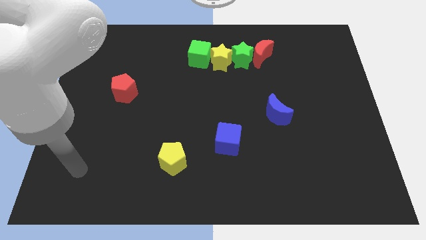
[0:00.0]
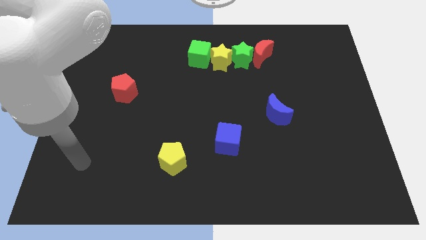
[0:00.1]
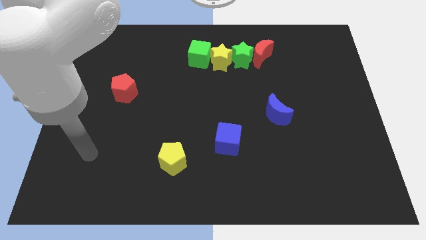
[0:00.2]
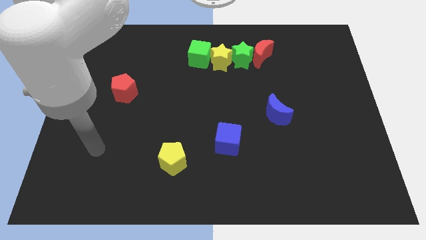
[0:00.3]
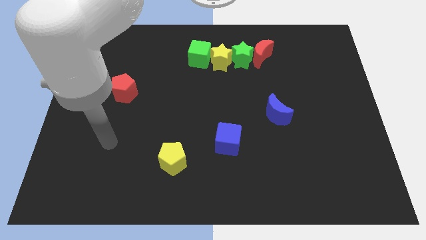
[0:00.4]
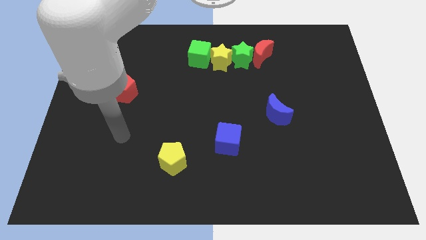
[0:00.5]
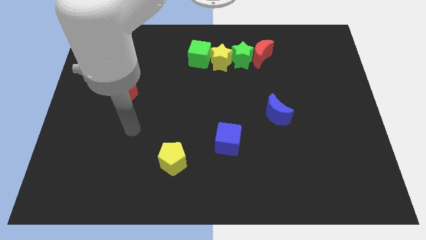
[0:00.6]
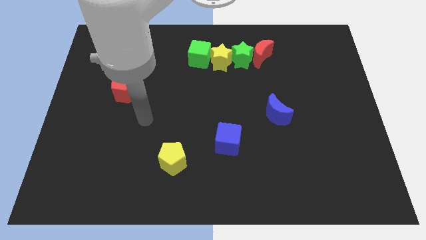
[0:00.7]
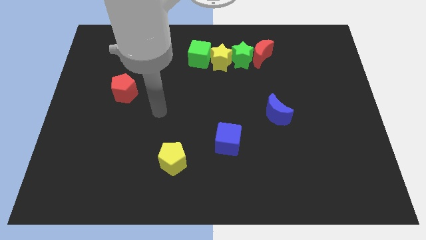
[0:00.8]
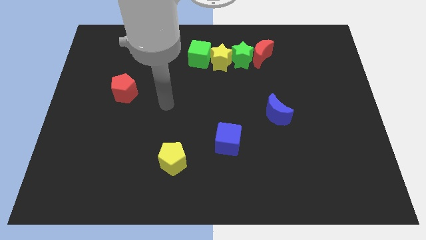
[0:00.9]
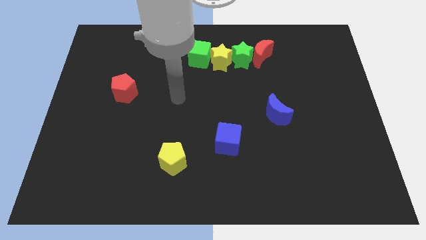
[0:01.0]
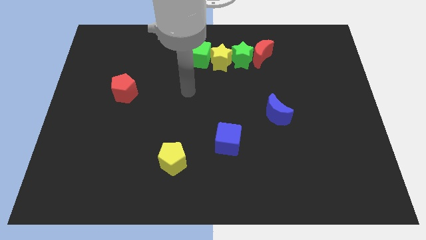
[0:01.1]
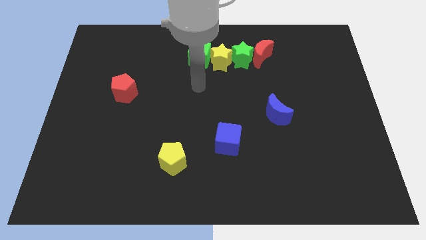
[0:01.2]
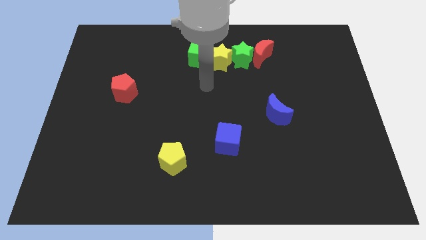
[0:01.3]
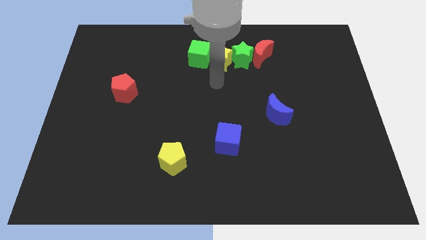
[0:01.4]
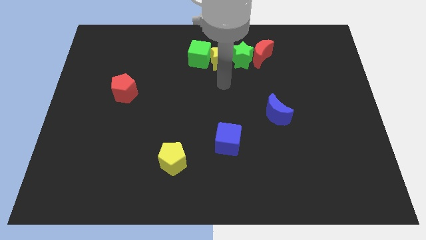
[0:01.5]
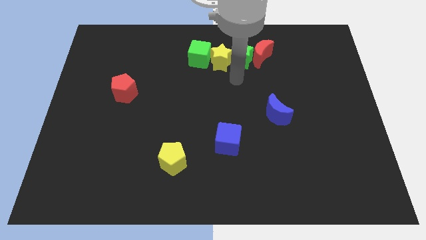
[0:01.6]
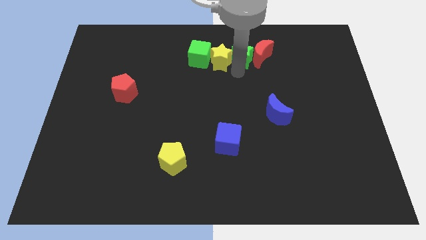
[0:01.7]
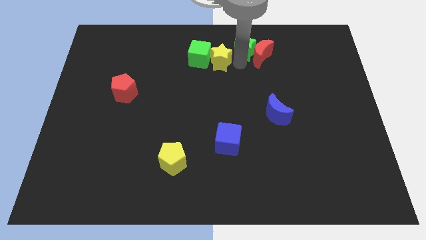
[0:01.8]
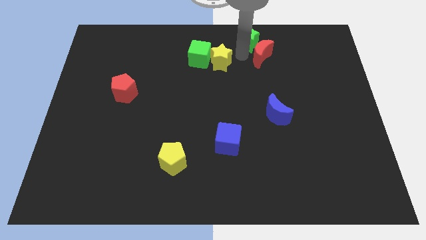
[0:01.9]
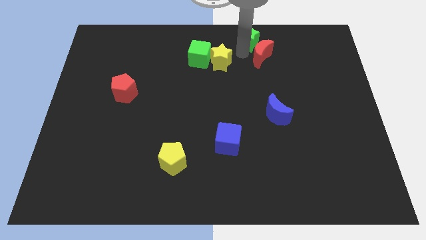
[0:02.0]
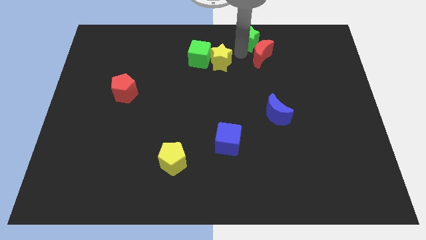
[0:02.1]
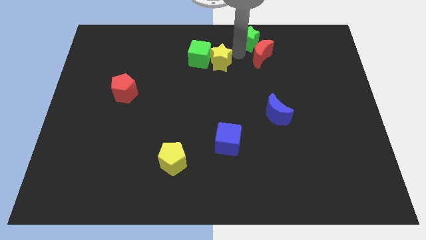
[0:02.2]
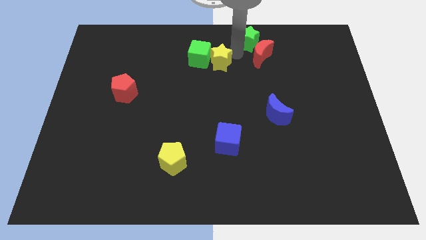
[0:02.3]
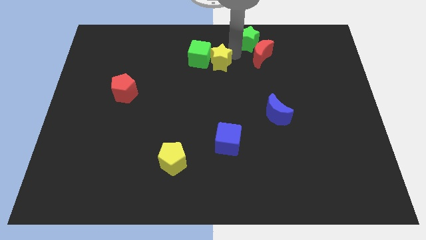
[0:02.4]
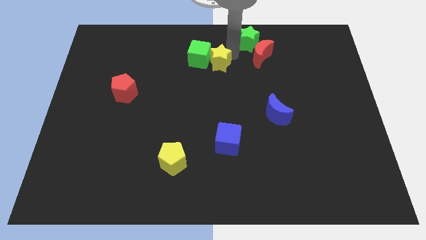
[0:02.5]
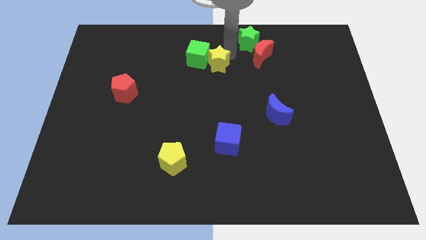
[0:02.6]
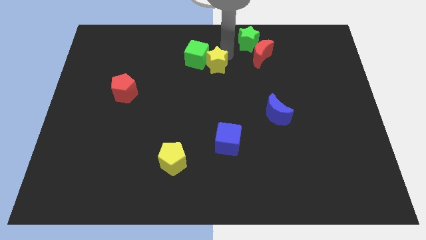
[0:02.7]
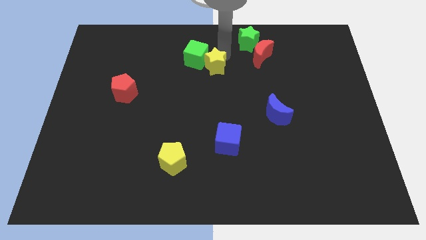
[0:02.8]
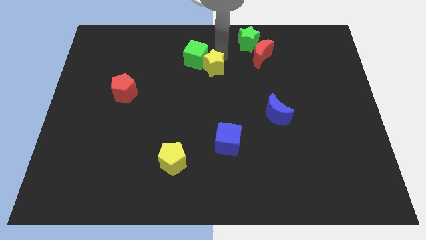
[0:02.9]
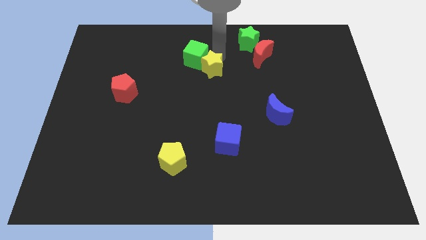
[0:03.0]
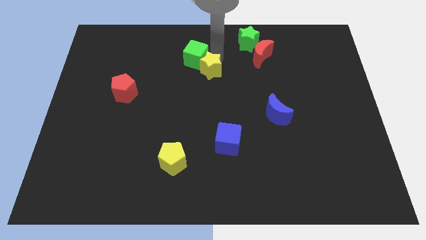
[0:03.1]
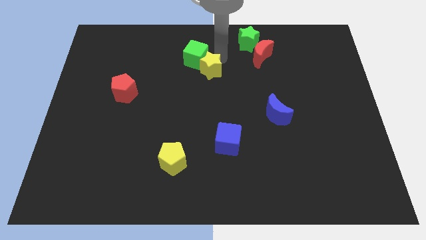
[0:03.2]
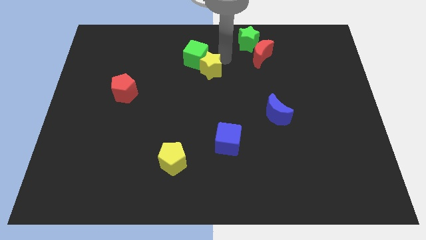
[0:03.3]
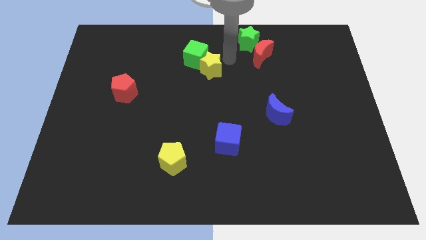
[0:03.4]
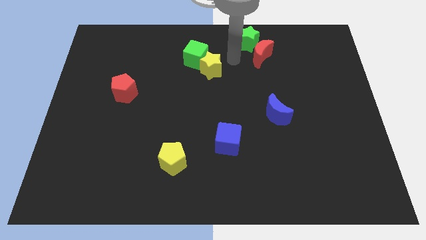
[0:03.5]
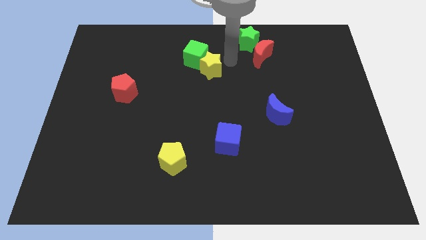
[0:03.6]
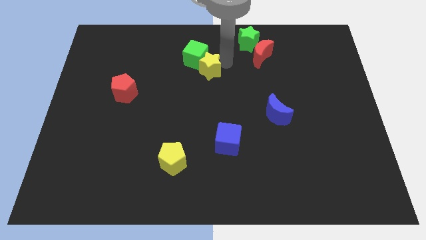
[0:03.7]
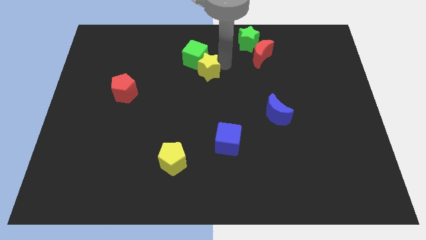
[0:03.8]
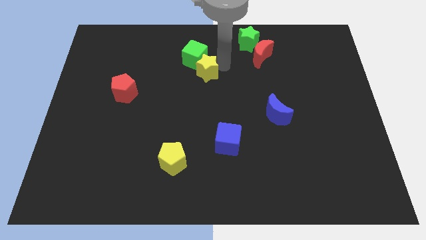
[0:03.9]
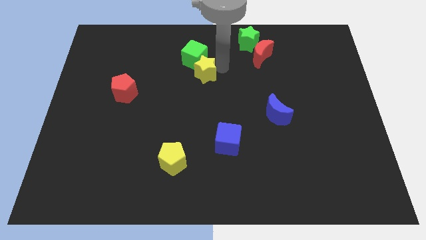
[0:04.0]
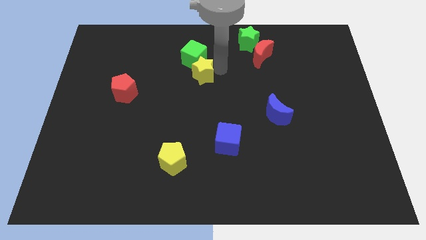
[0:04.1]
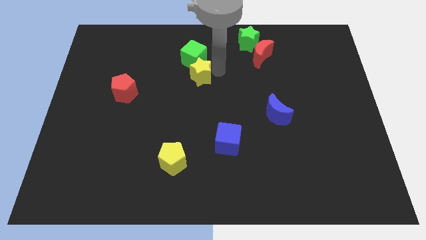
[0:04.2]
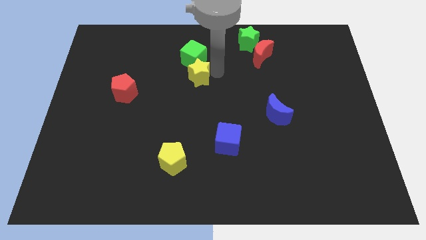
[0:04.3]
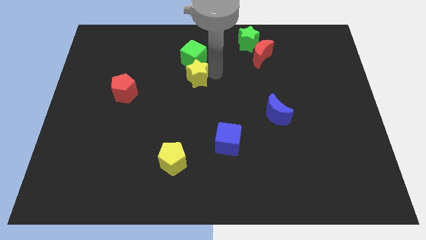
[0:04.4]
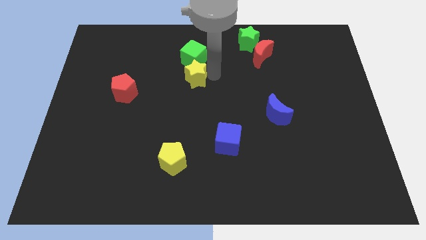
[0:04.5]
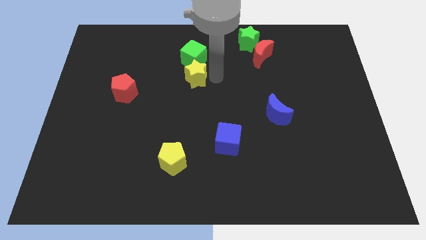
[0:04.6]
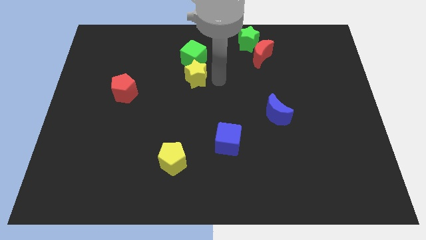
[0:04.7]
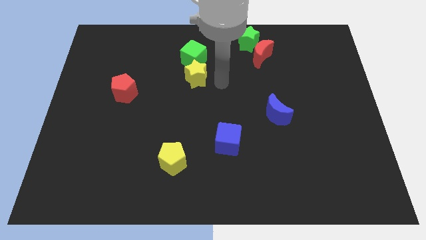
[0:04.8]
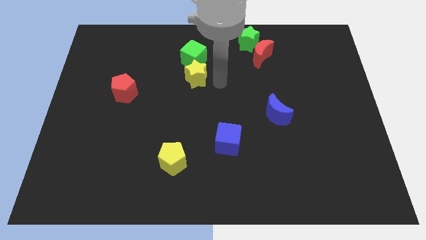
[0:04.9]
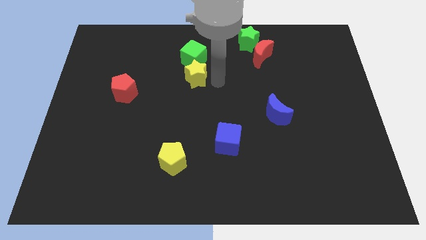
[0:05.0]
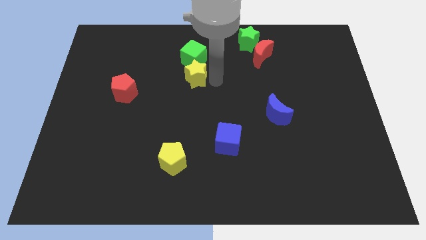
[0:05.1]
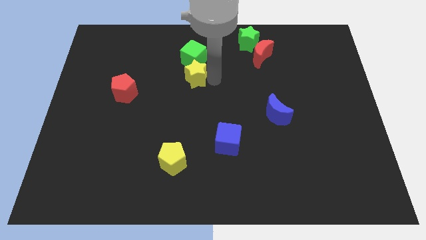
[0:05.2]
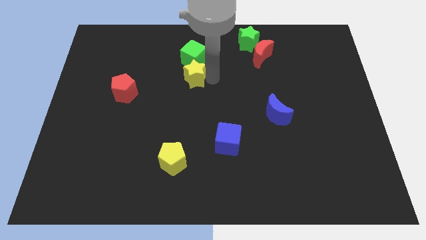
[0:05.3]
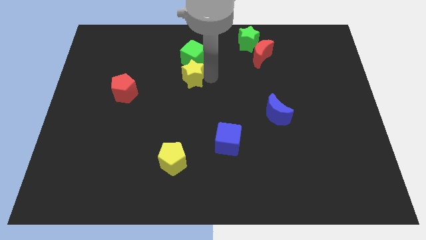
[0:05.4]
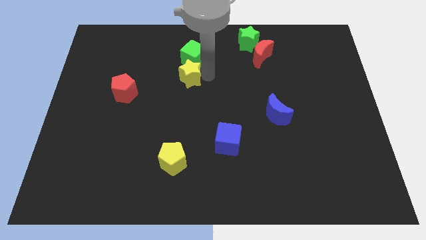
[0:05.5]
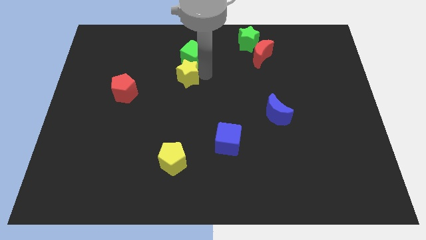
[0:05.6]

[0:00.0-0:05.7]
slide the yellow star to the left a bit

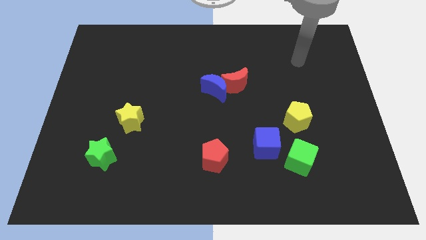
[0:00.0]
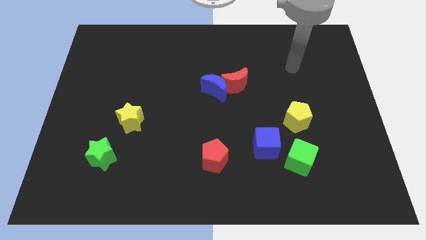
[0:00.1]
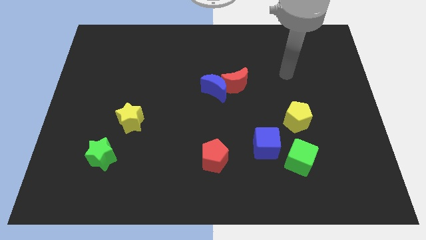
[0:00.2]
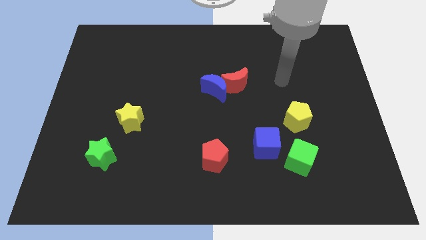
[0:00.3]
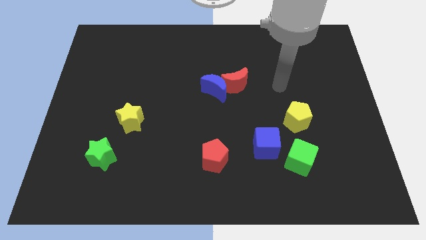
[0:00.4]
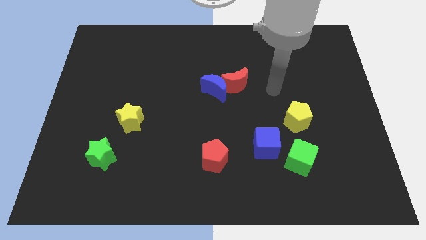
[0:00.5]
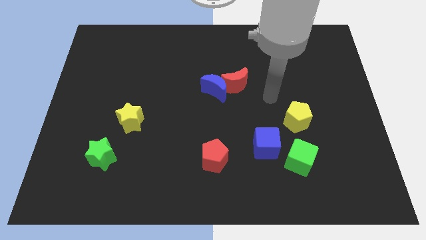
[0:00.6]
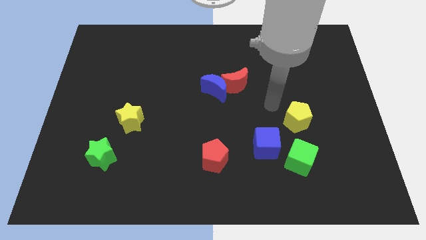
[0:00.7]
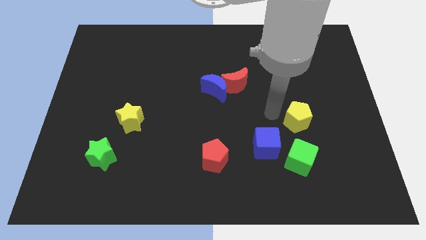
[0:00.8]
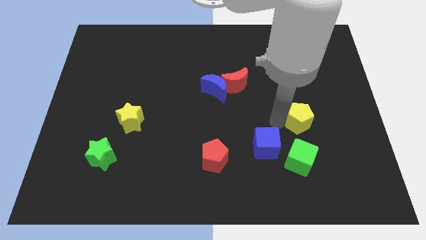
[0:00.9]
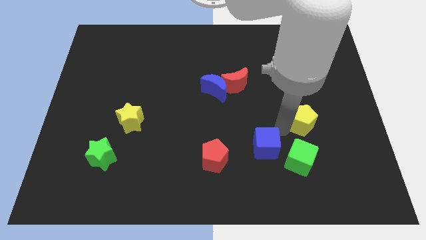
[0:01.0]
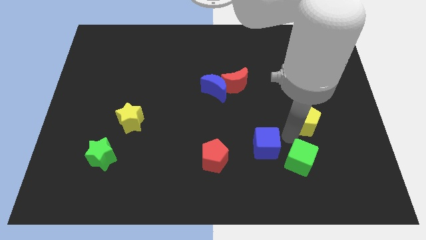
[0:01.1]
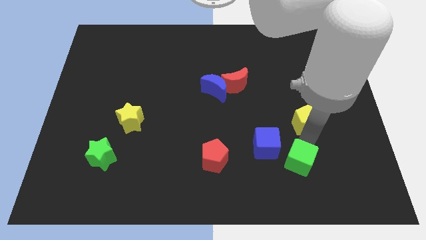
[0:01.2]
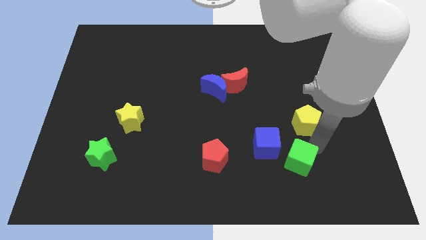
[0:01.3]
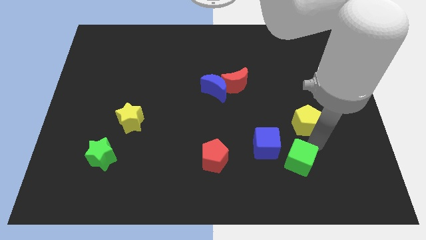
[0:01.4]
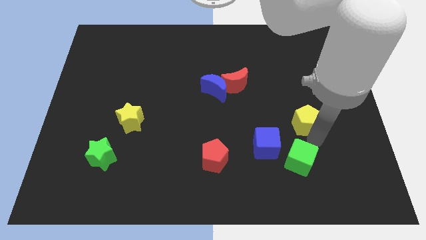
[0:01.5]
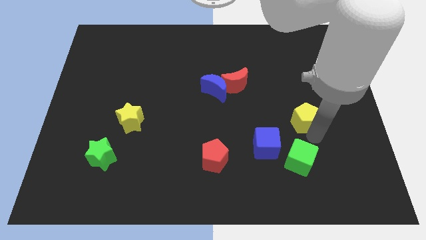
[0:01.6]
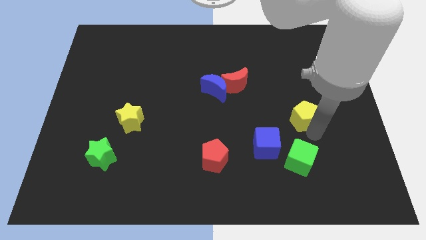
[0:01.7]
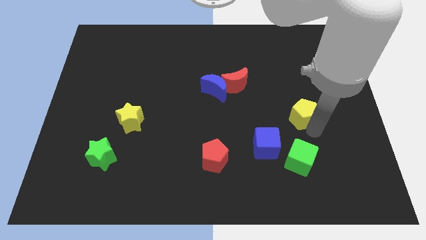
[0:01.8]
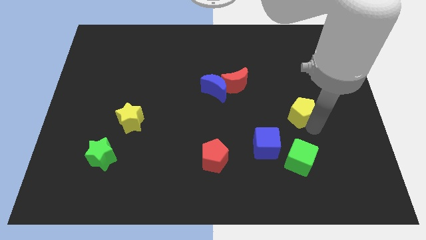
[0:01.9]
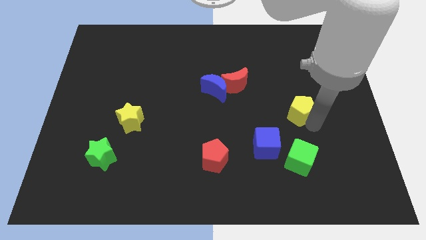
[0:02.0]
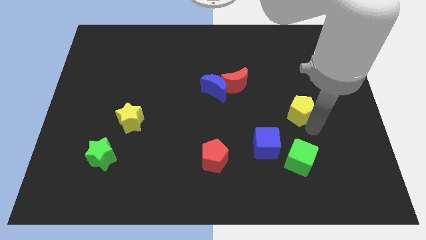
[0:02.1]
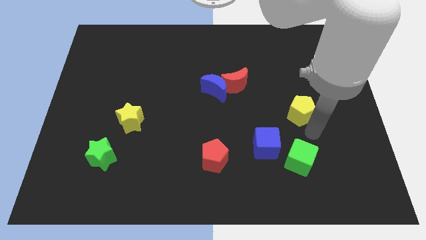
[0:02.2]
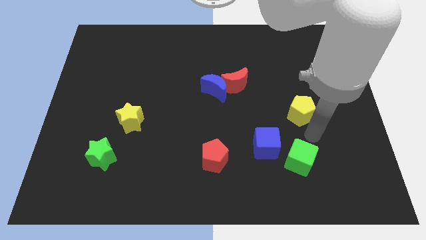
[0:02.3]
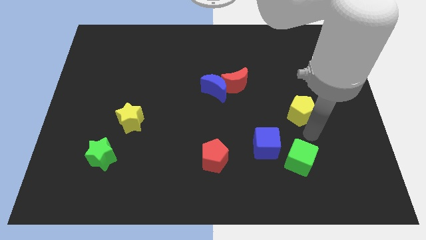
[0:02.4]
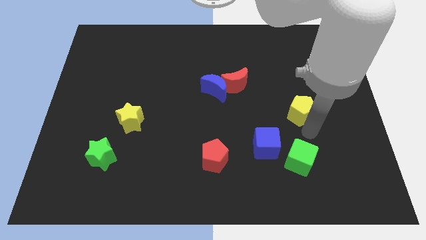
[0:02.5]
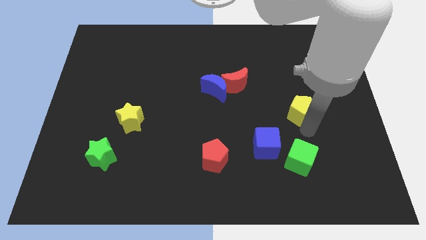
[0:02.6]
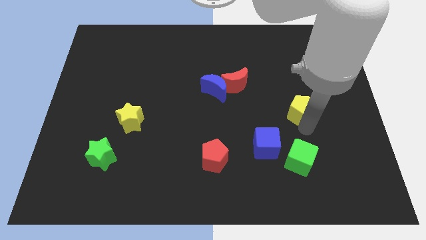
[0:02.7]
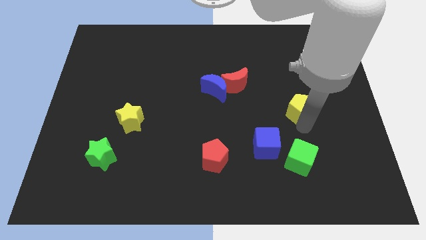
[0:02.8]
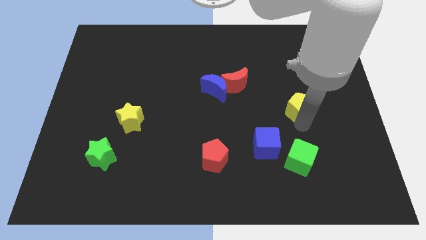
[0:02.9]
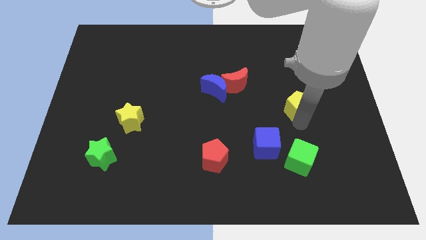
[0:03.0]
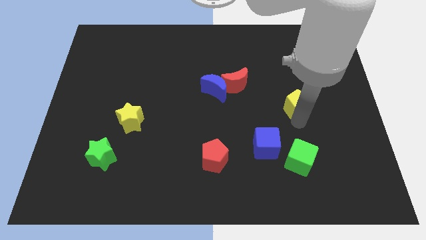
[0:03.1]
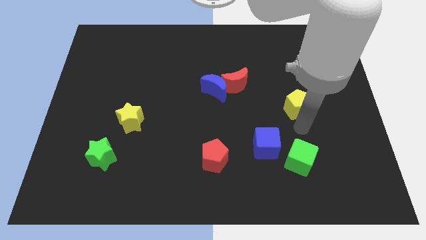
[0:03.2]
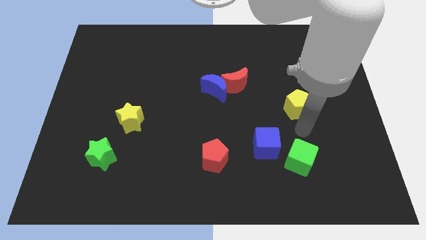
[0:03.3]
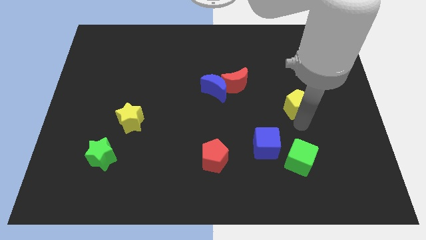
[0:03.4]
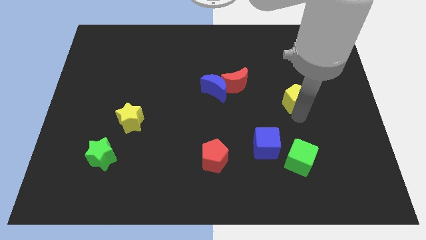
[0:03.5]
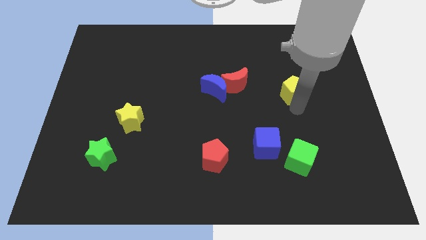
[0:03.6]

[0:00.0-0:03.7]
slightly push the yellow pentagon up
